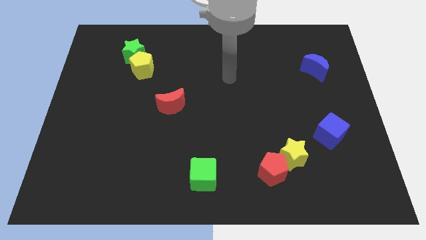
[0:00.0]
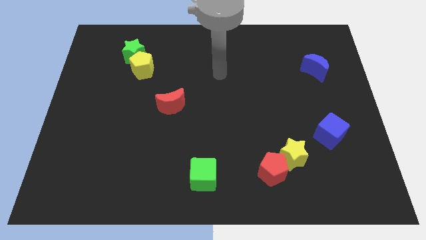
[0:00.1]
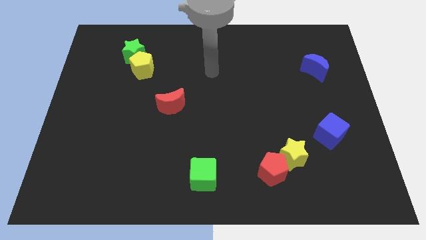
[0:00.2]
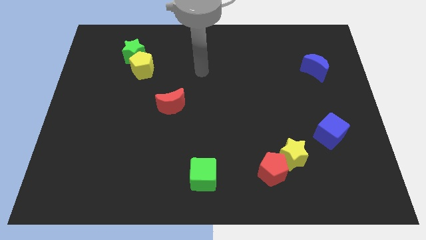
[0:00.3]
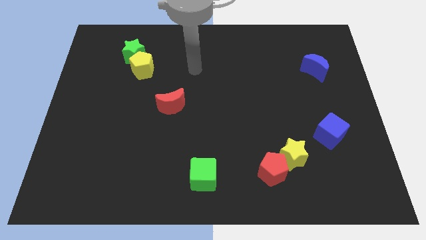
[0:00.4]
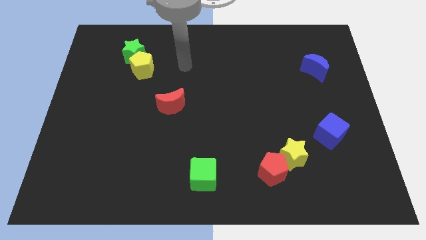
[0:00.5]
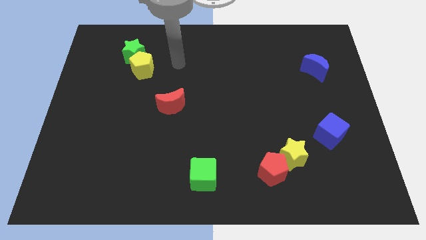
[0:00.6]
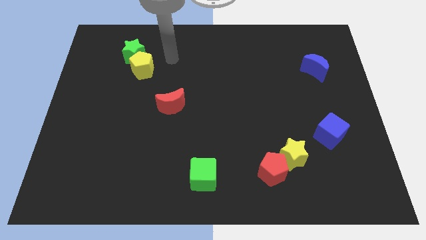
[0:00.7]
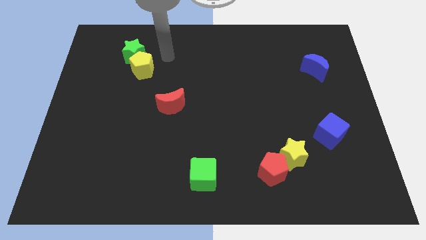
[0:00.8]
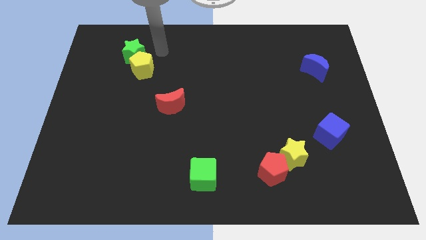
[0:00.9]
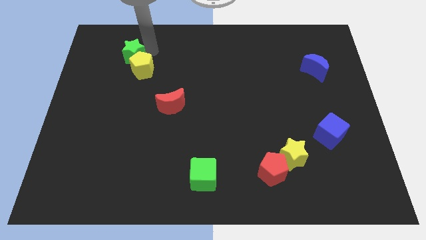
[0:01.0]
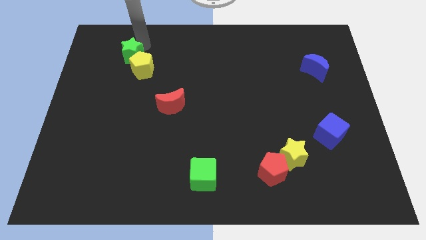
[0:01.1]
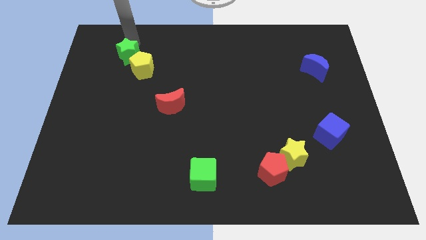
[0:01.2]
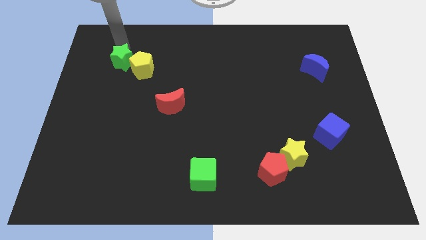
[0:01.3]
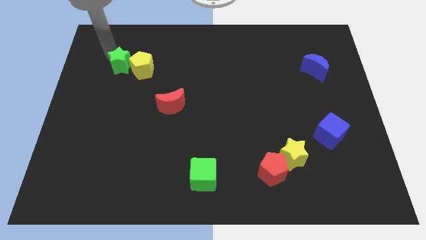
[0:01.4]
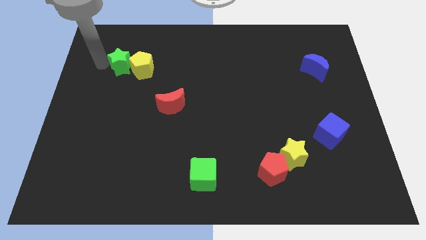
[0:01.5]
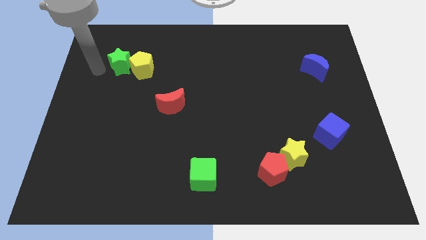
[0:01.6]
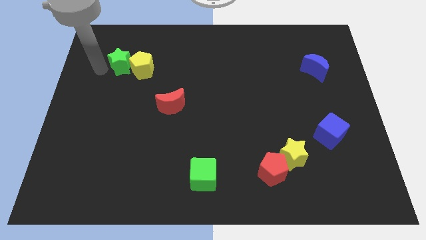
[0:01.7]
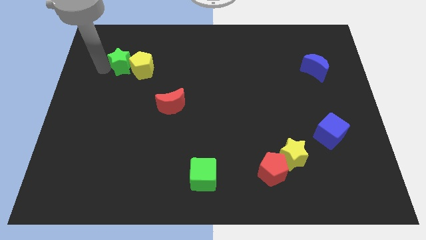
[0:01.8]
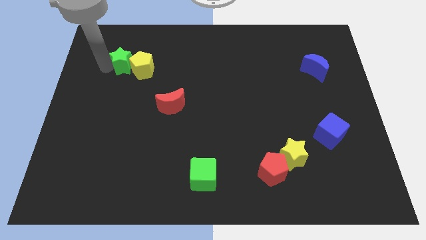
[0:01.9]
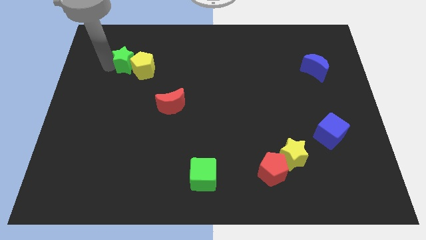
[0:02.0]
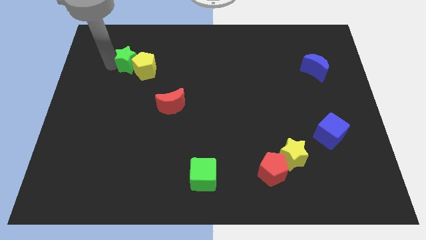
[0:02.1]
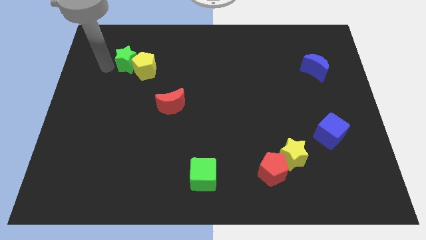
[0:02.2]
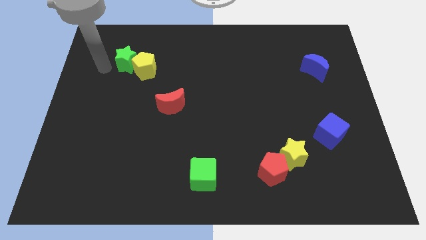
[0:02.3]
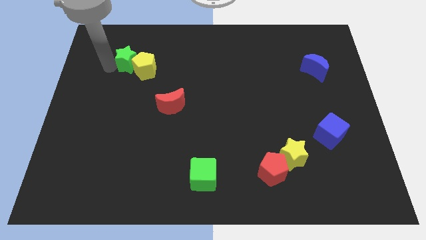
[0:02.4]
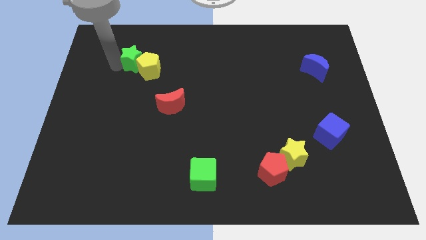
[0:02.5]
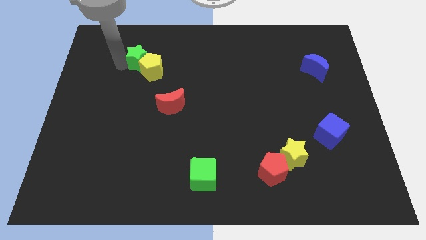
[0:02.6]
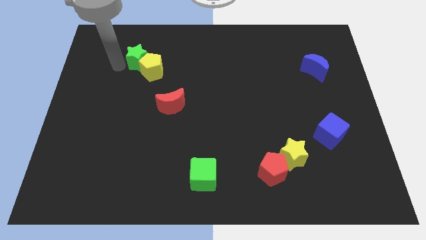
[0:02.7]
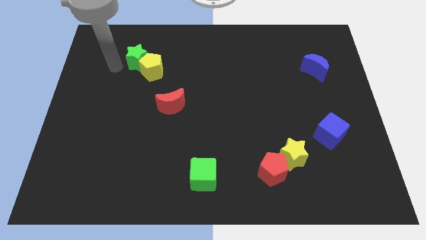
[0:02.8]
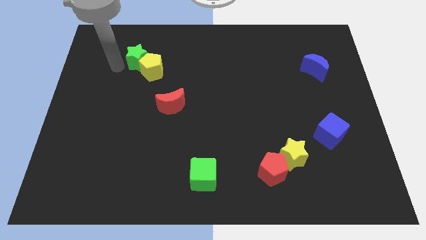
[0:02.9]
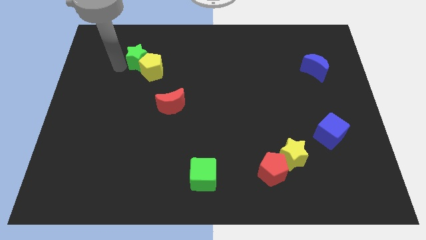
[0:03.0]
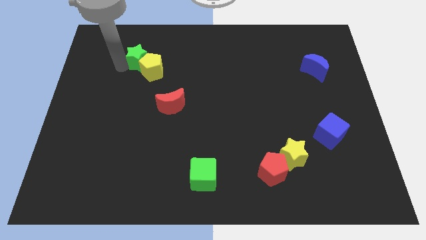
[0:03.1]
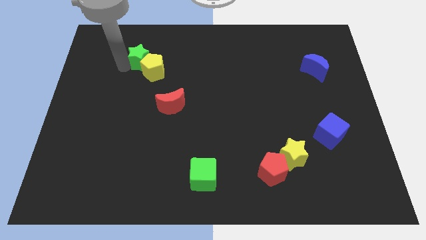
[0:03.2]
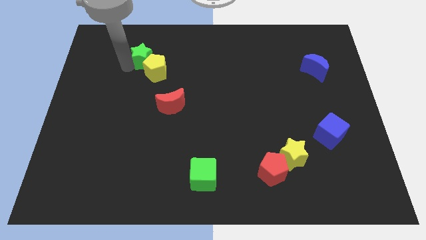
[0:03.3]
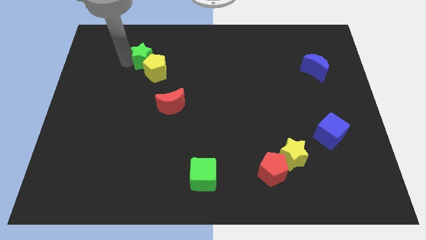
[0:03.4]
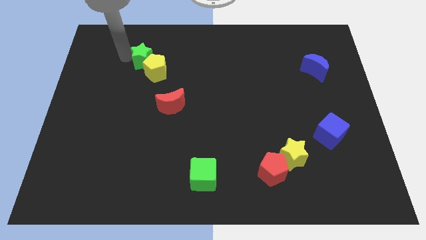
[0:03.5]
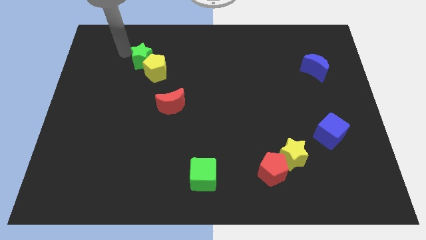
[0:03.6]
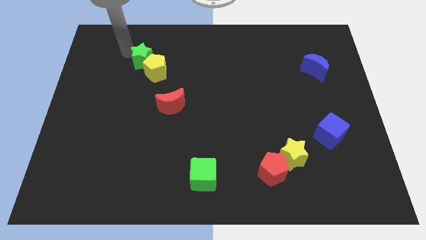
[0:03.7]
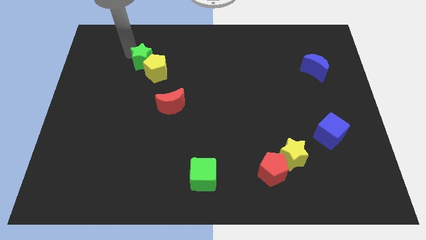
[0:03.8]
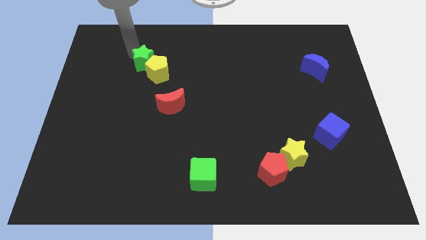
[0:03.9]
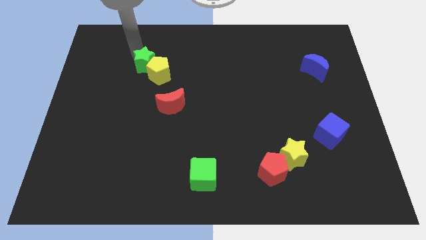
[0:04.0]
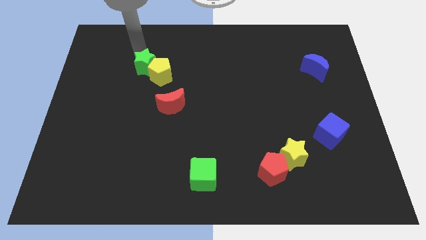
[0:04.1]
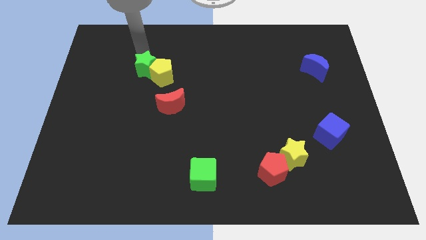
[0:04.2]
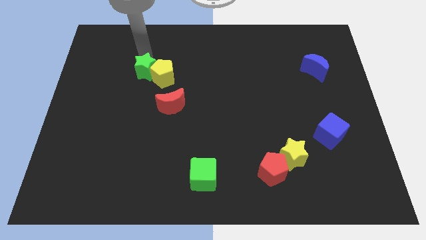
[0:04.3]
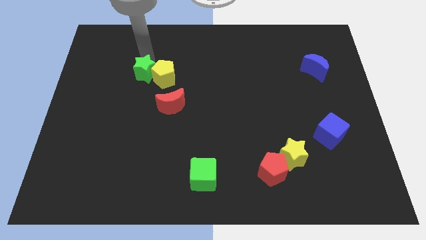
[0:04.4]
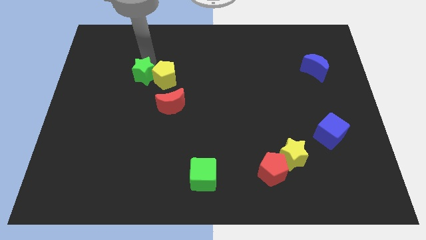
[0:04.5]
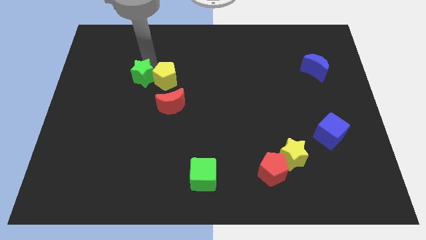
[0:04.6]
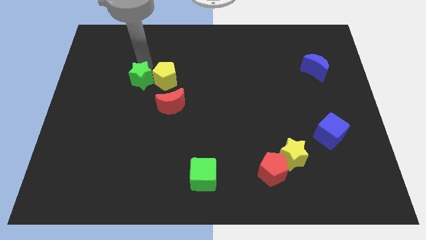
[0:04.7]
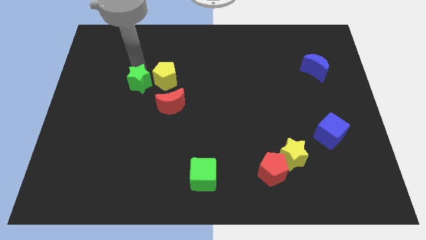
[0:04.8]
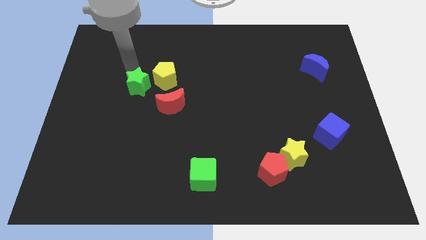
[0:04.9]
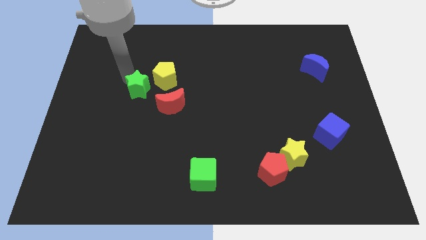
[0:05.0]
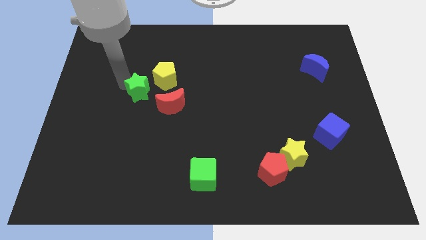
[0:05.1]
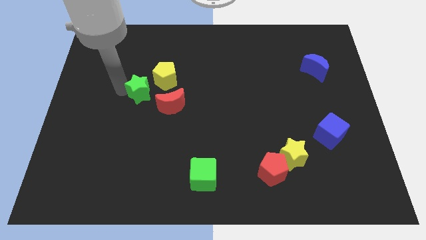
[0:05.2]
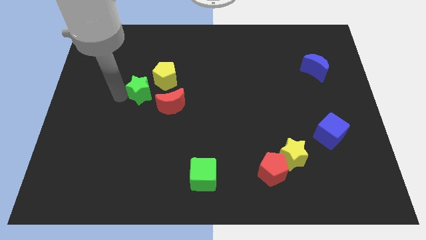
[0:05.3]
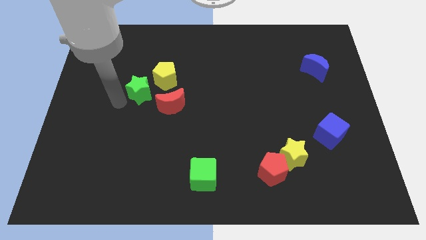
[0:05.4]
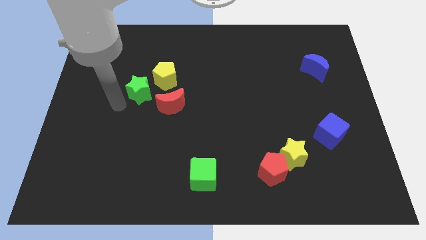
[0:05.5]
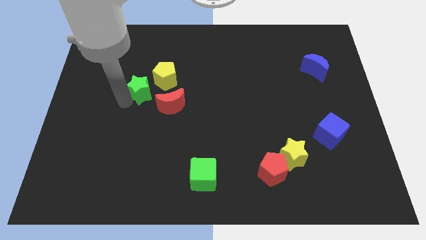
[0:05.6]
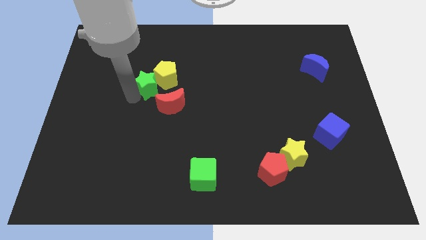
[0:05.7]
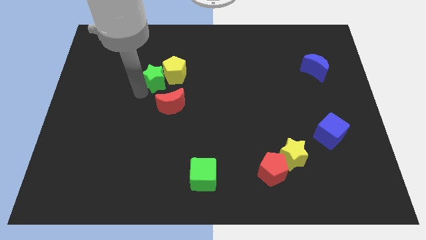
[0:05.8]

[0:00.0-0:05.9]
push the green star to the top side of the red moon

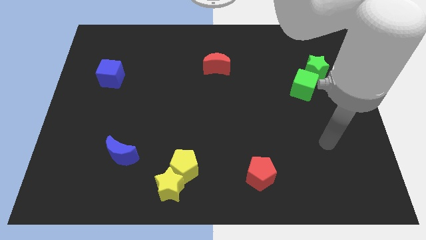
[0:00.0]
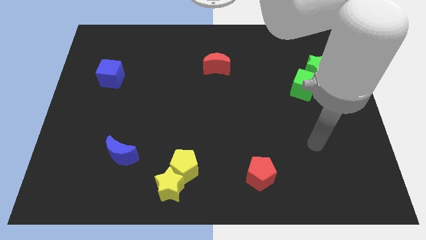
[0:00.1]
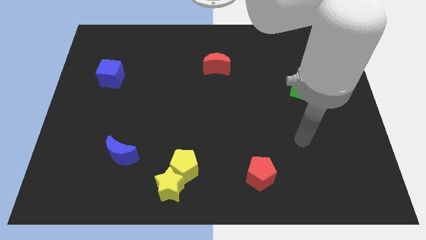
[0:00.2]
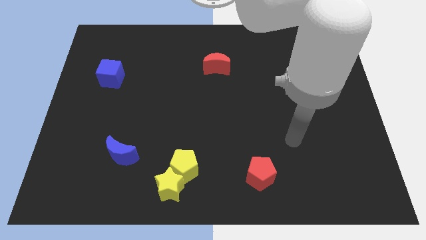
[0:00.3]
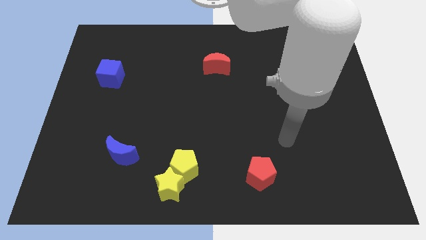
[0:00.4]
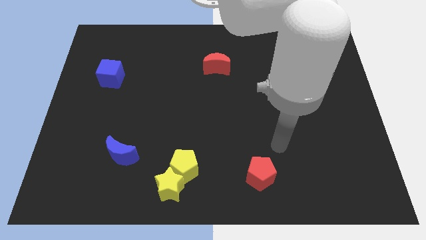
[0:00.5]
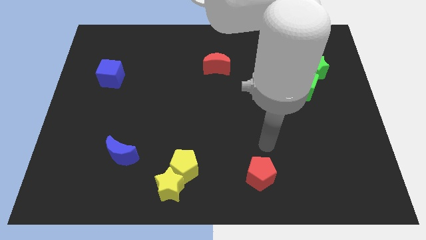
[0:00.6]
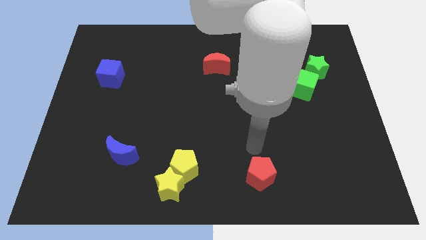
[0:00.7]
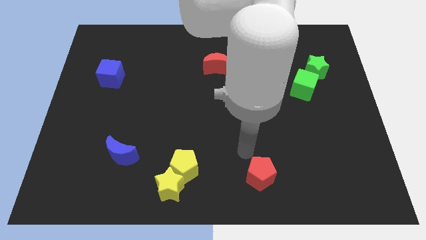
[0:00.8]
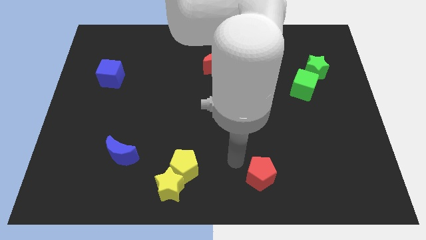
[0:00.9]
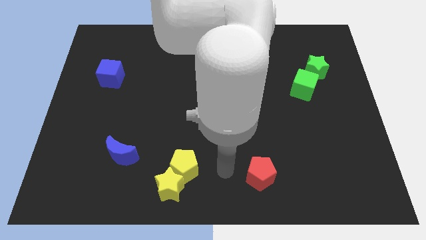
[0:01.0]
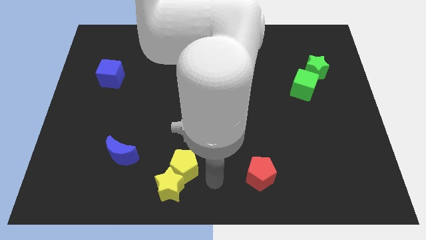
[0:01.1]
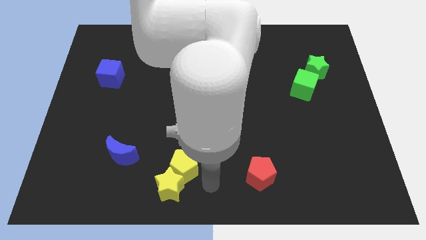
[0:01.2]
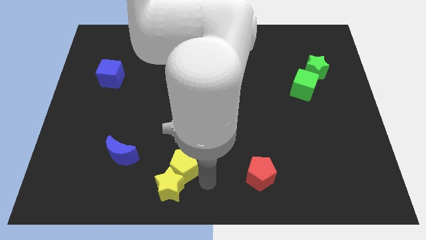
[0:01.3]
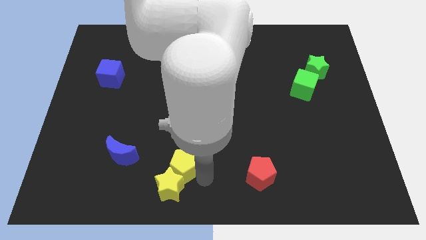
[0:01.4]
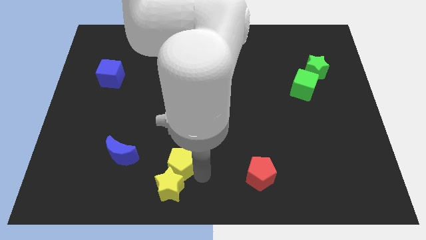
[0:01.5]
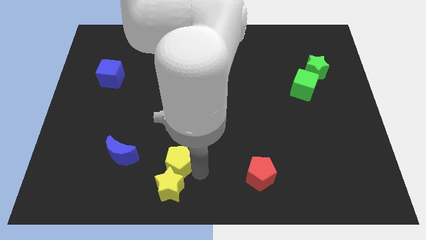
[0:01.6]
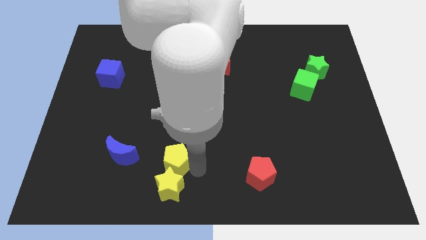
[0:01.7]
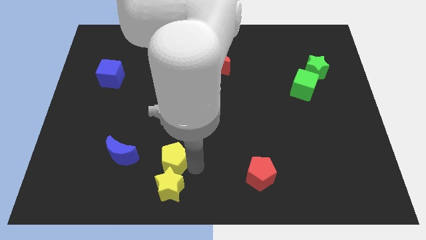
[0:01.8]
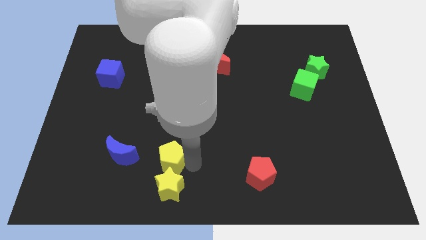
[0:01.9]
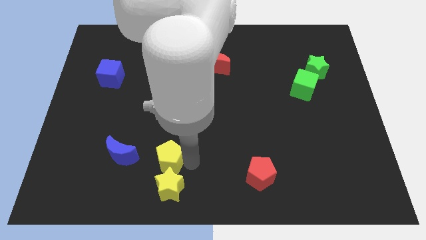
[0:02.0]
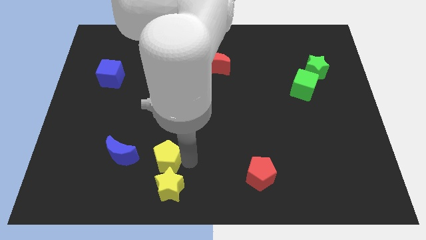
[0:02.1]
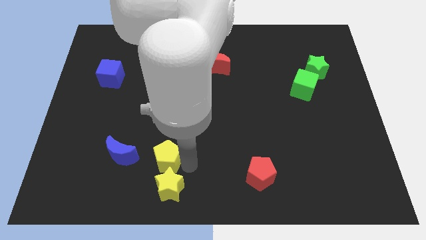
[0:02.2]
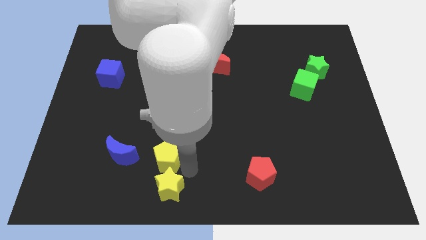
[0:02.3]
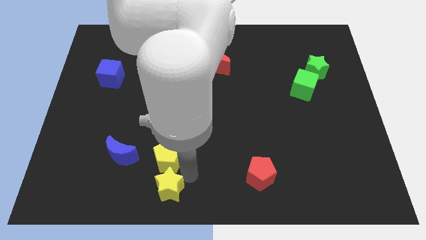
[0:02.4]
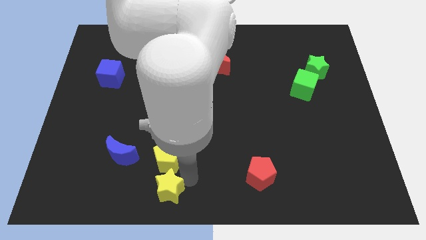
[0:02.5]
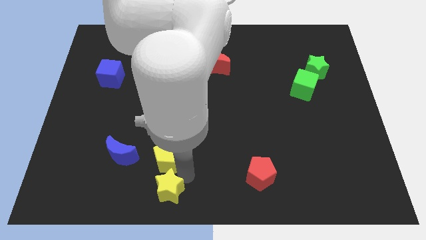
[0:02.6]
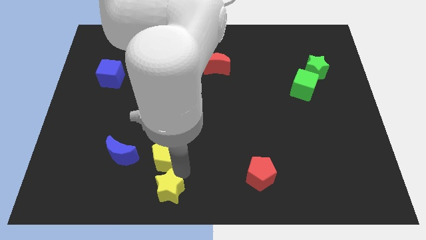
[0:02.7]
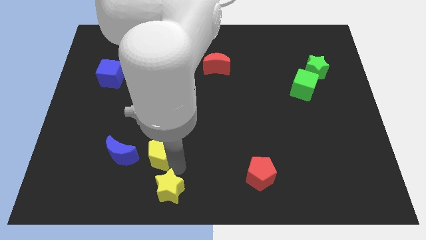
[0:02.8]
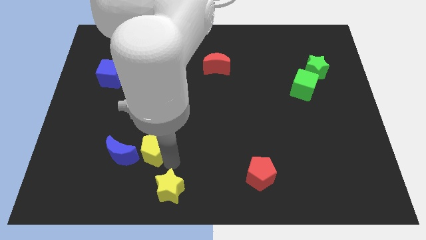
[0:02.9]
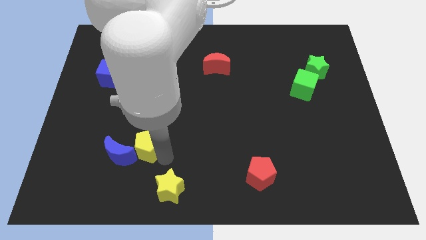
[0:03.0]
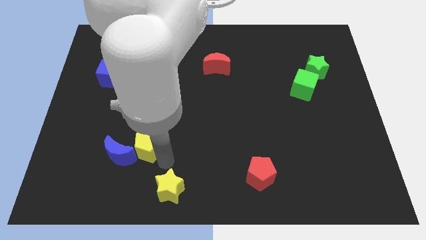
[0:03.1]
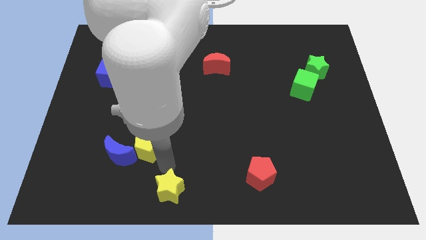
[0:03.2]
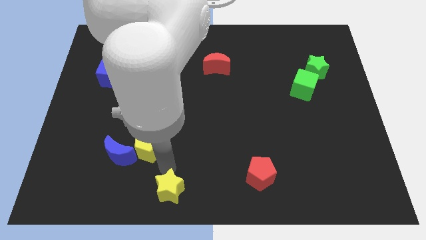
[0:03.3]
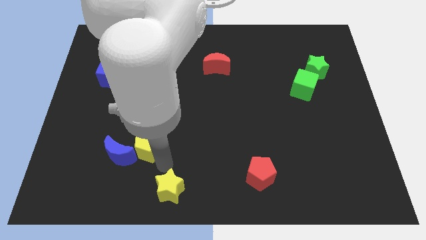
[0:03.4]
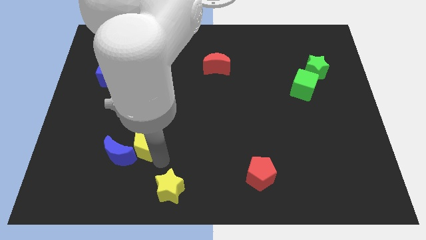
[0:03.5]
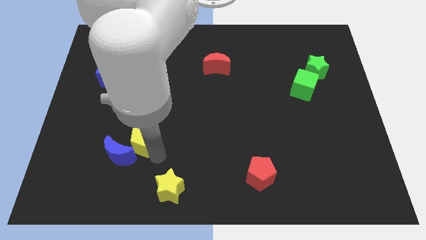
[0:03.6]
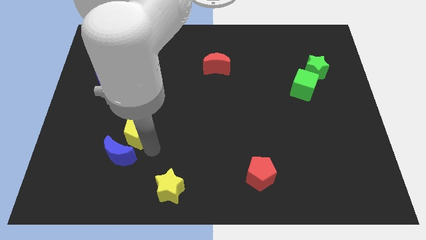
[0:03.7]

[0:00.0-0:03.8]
move the yellow pentagon to the top side of the blue moon
